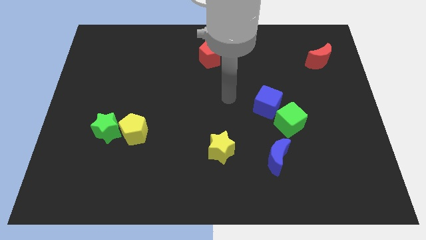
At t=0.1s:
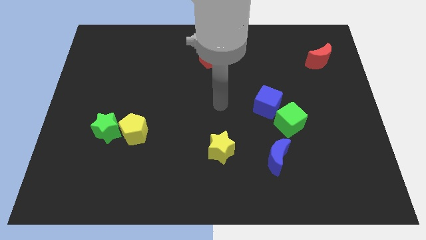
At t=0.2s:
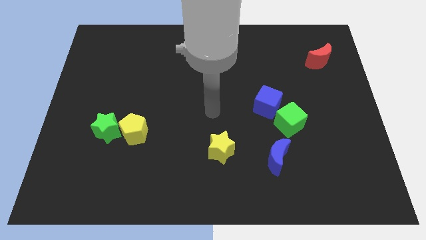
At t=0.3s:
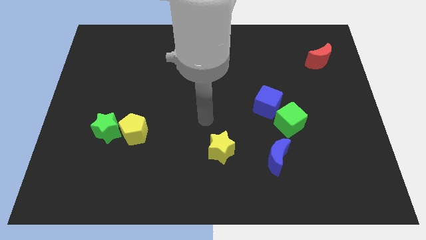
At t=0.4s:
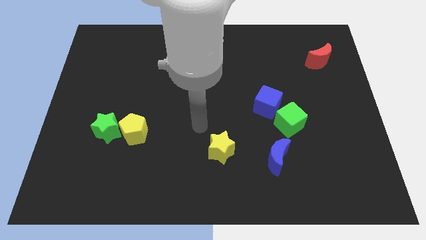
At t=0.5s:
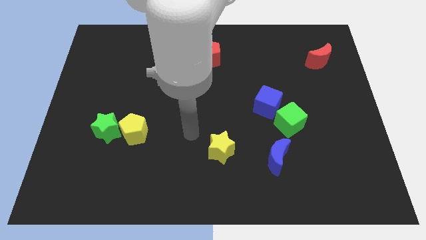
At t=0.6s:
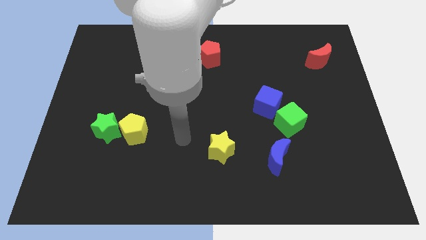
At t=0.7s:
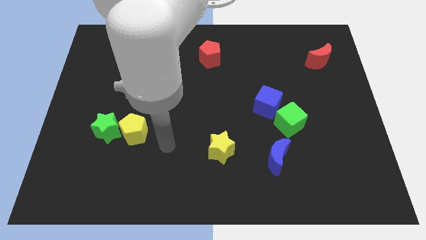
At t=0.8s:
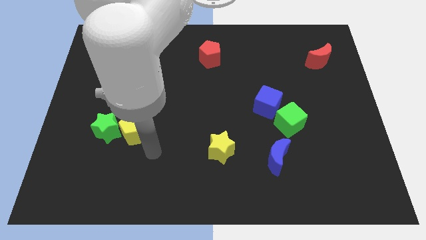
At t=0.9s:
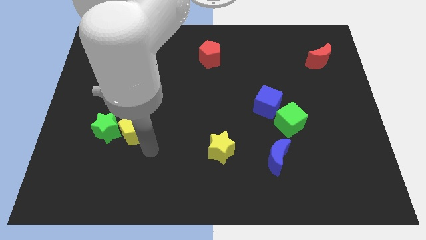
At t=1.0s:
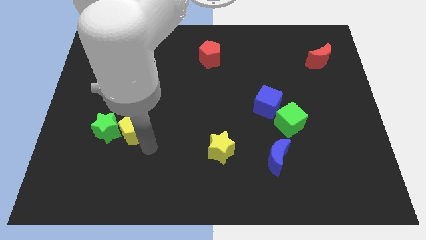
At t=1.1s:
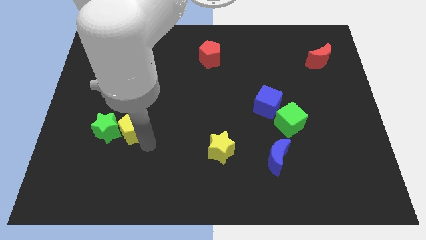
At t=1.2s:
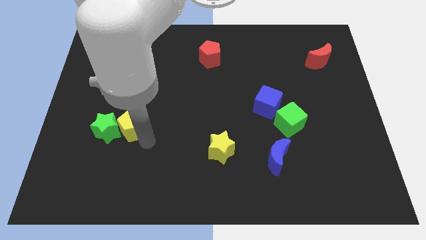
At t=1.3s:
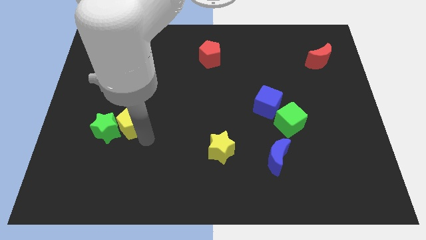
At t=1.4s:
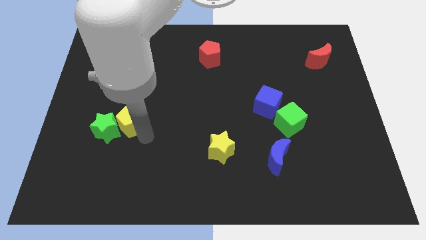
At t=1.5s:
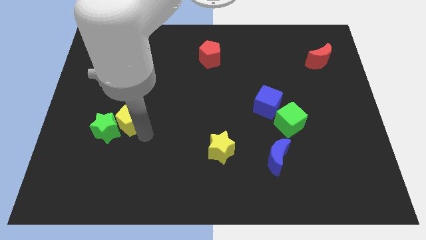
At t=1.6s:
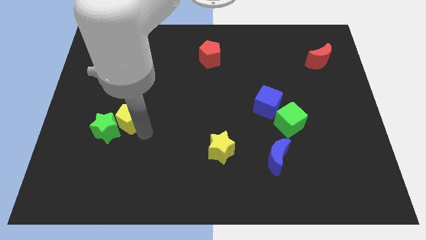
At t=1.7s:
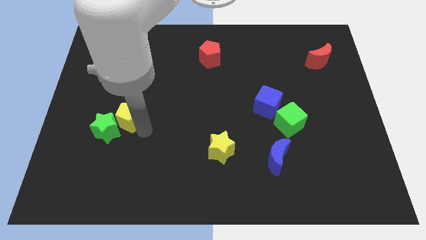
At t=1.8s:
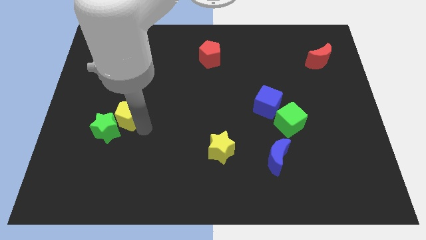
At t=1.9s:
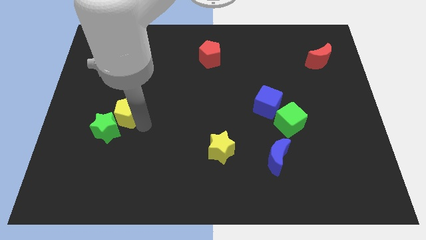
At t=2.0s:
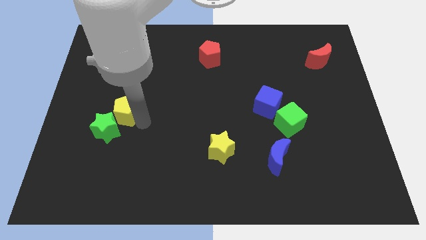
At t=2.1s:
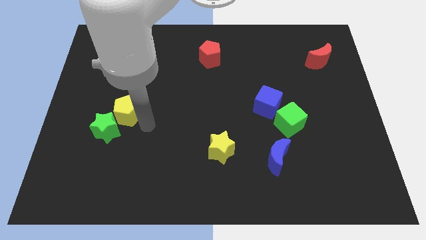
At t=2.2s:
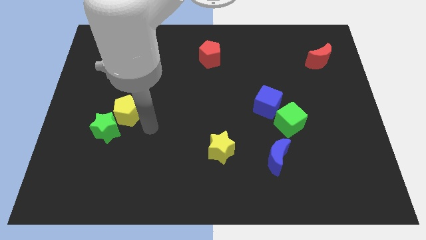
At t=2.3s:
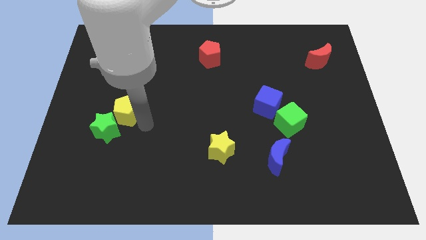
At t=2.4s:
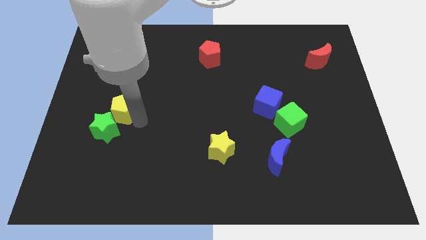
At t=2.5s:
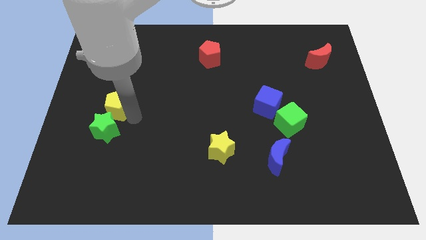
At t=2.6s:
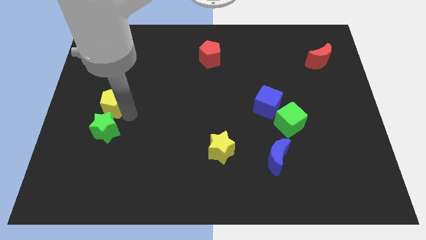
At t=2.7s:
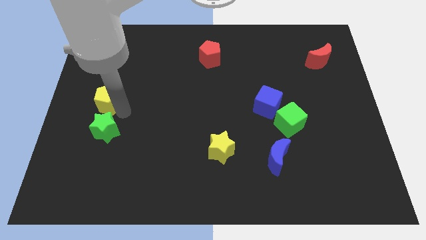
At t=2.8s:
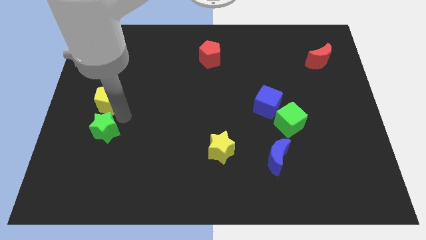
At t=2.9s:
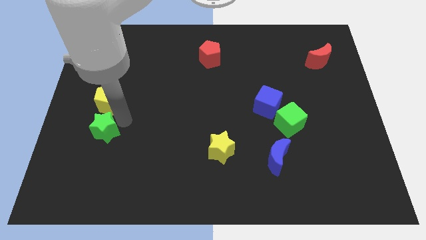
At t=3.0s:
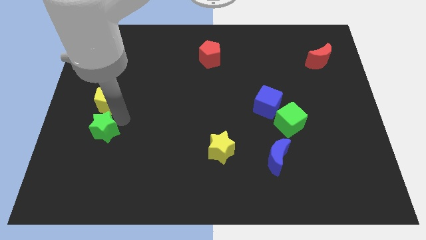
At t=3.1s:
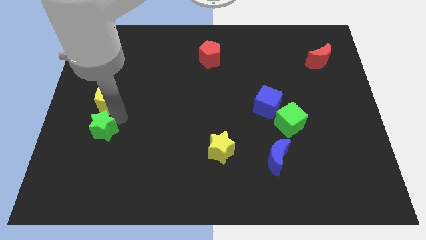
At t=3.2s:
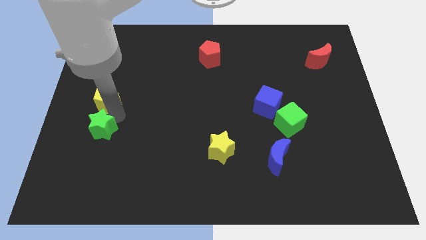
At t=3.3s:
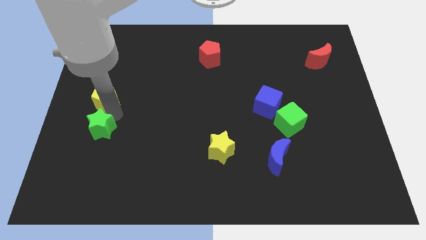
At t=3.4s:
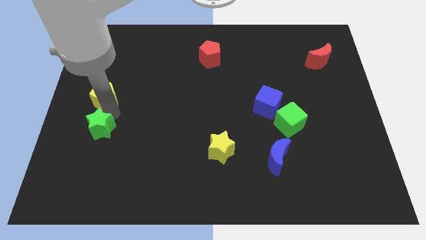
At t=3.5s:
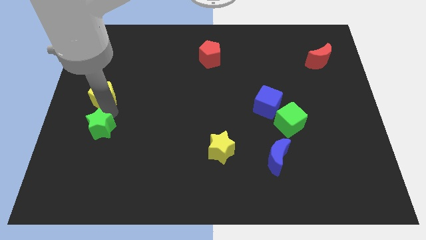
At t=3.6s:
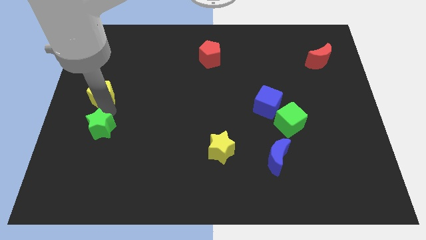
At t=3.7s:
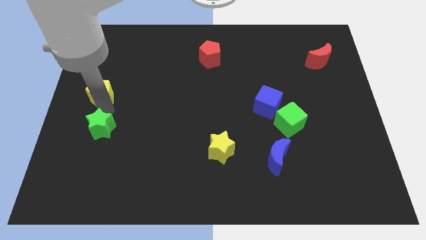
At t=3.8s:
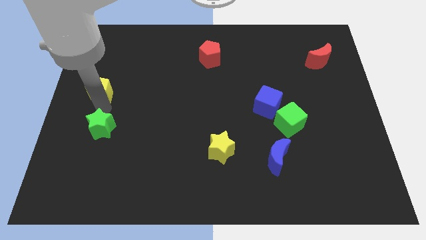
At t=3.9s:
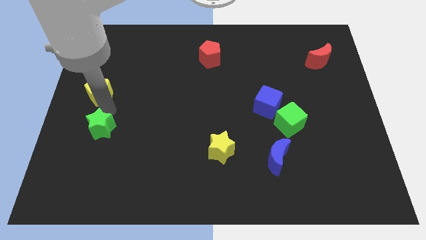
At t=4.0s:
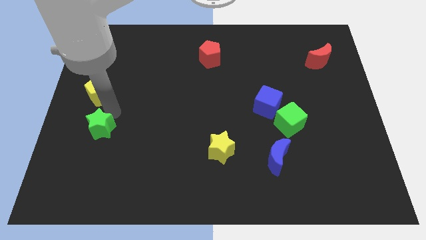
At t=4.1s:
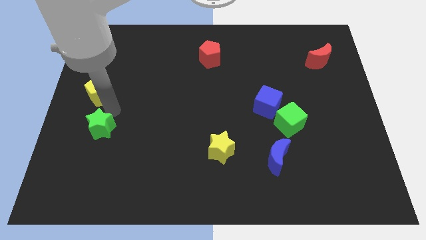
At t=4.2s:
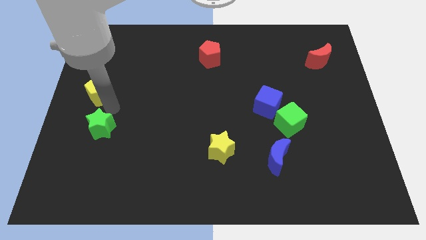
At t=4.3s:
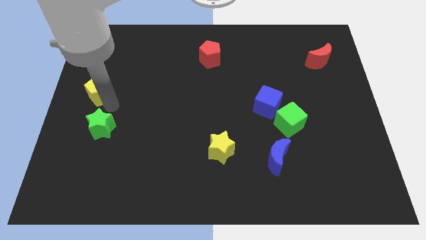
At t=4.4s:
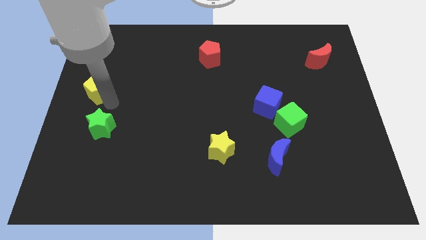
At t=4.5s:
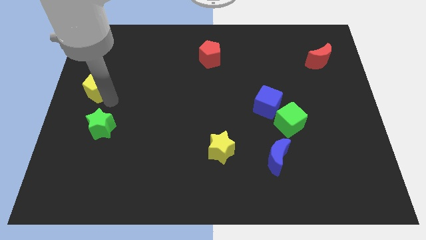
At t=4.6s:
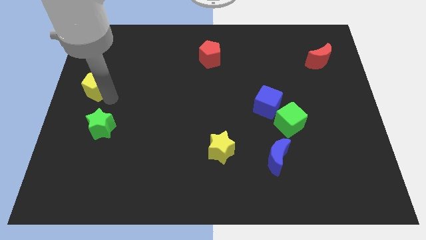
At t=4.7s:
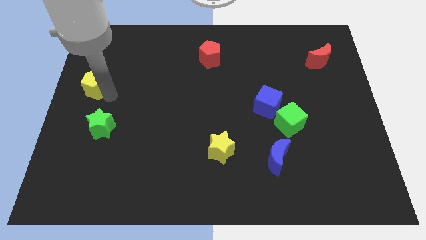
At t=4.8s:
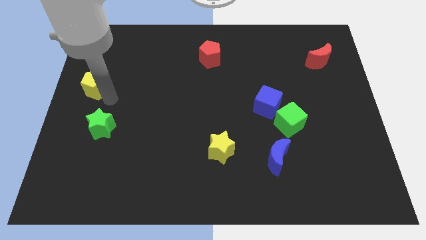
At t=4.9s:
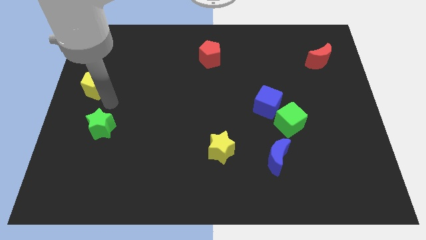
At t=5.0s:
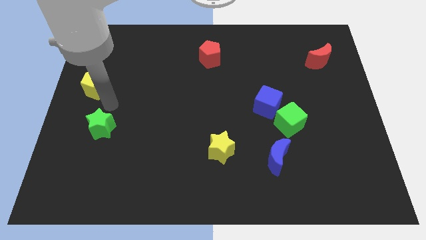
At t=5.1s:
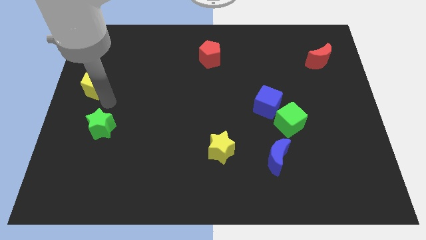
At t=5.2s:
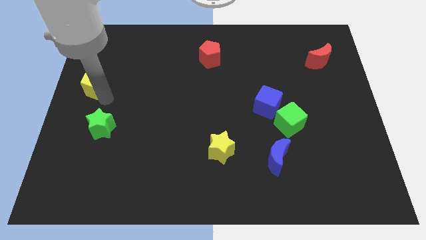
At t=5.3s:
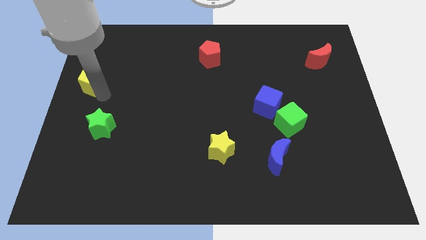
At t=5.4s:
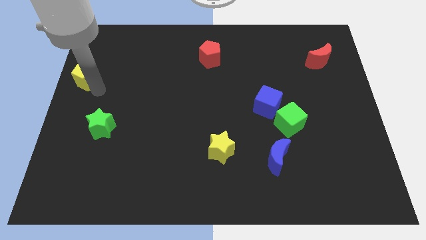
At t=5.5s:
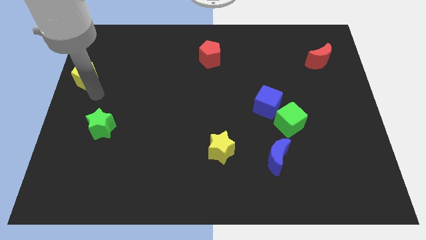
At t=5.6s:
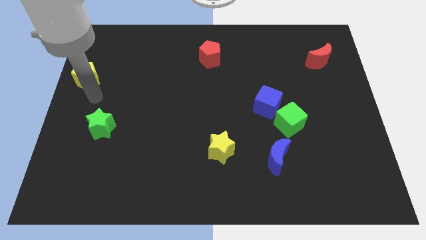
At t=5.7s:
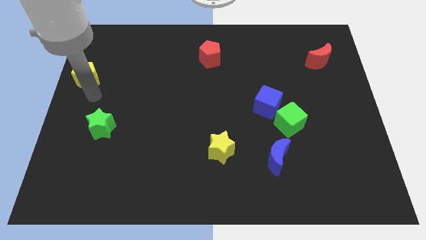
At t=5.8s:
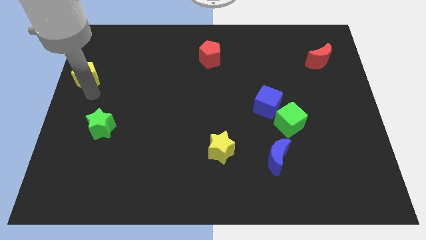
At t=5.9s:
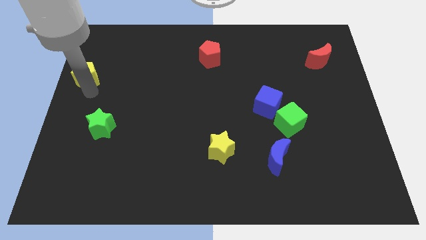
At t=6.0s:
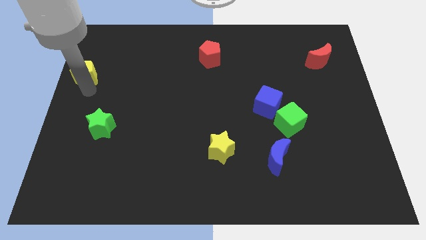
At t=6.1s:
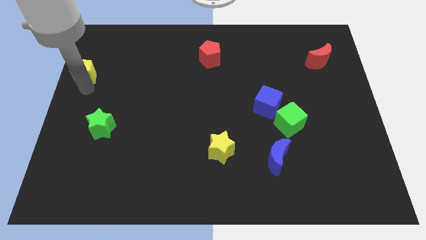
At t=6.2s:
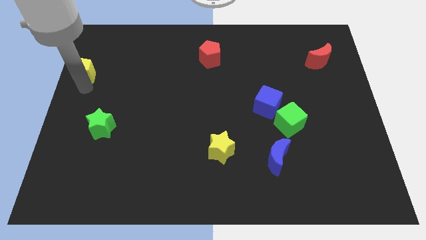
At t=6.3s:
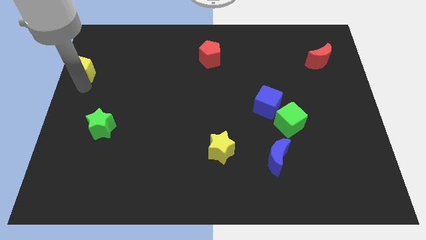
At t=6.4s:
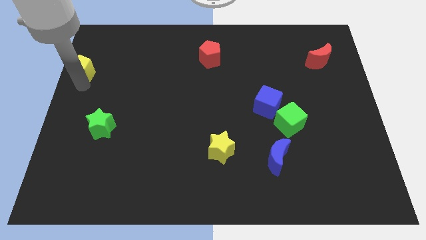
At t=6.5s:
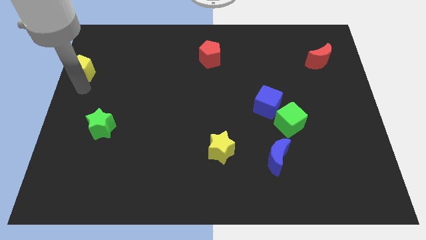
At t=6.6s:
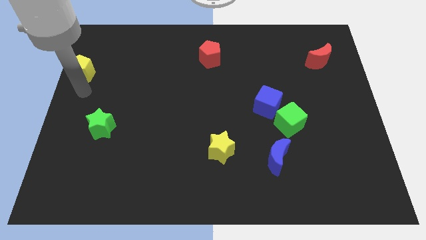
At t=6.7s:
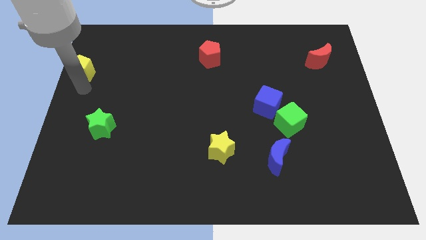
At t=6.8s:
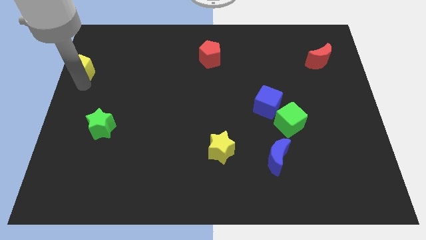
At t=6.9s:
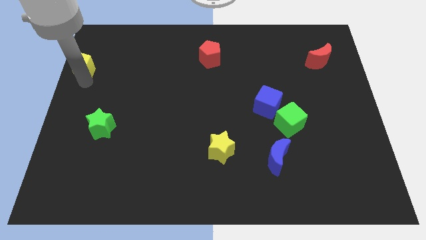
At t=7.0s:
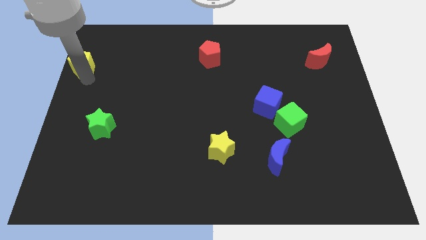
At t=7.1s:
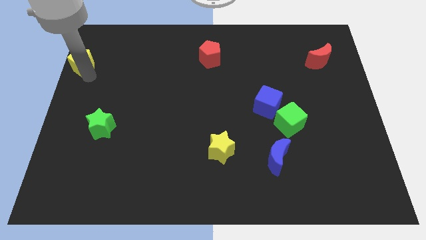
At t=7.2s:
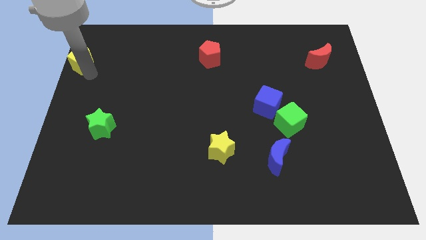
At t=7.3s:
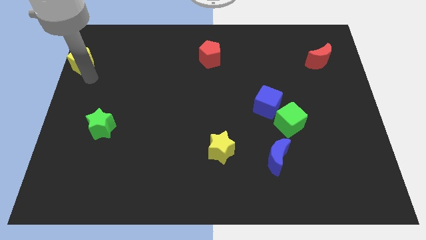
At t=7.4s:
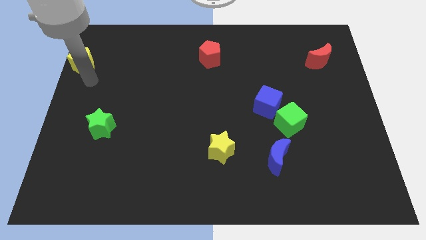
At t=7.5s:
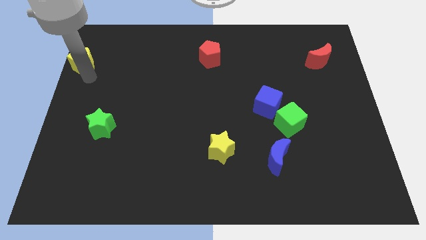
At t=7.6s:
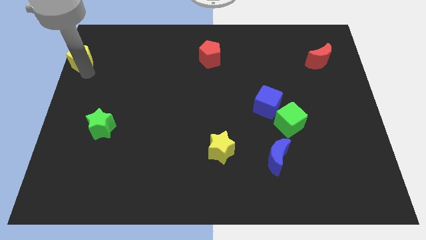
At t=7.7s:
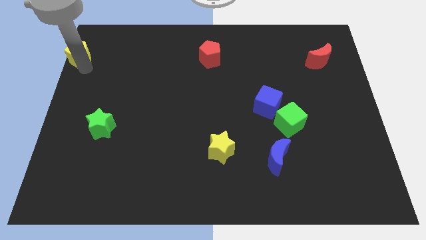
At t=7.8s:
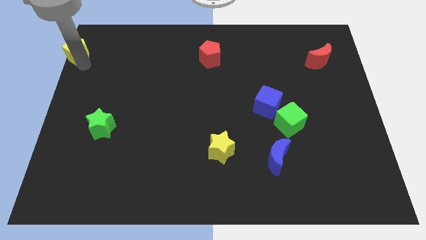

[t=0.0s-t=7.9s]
slide the yellow pentagon to the top left
